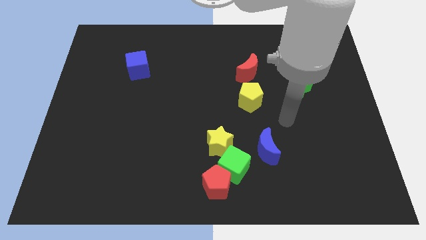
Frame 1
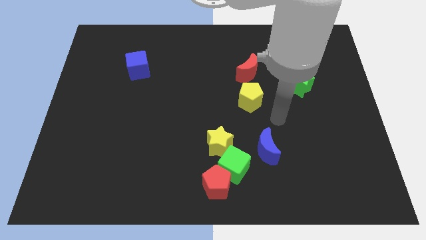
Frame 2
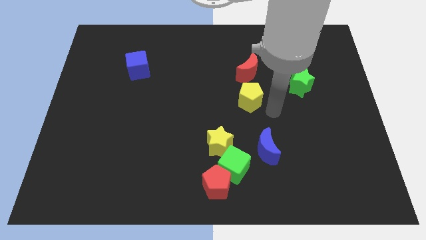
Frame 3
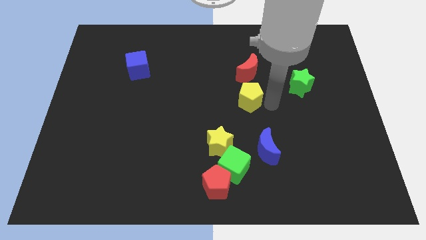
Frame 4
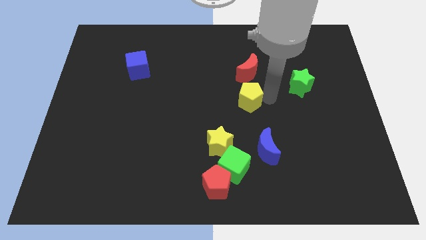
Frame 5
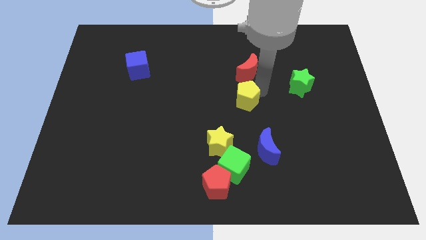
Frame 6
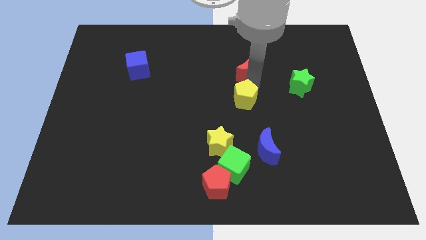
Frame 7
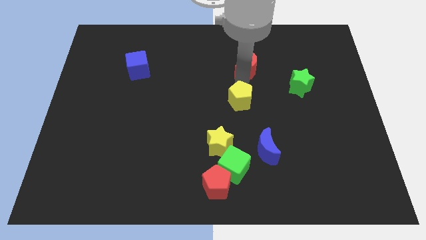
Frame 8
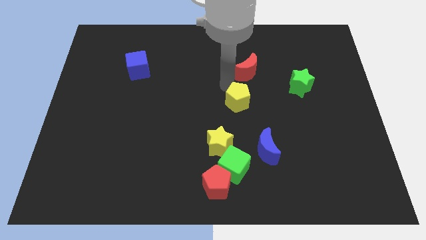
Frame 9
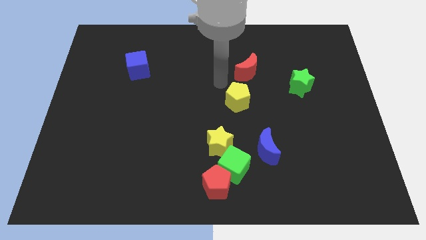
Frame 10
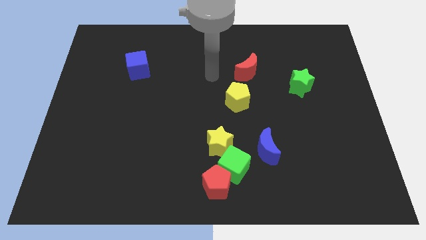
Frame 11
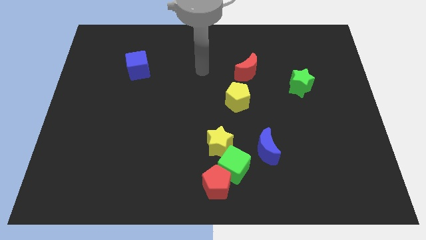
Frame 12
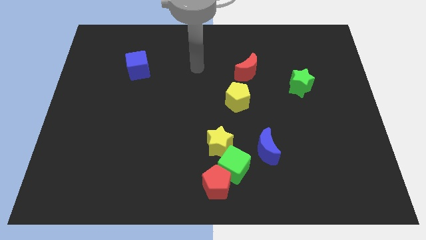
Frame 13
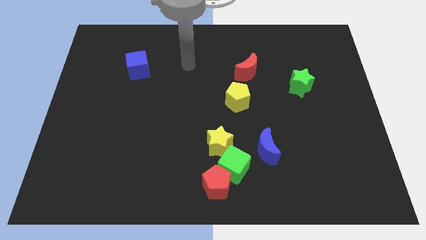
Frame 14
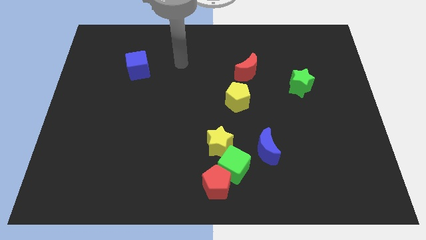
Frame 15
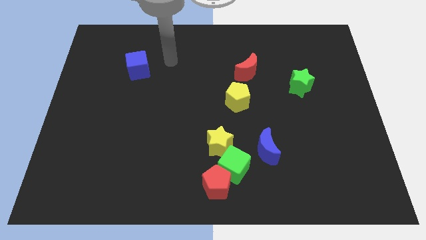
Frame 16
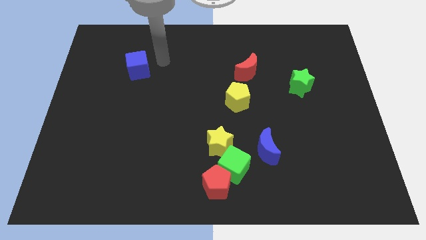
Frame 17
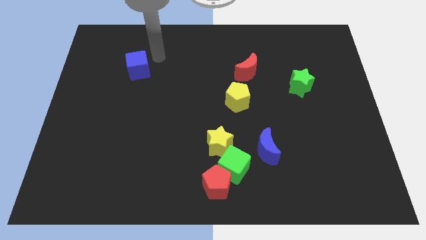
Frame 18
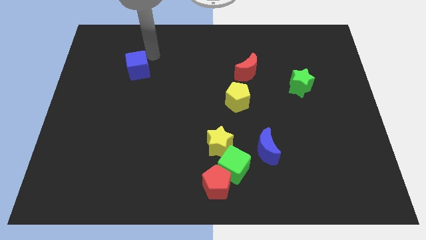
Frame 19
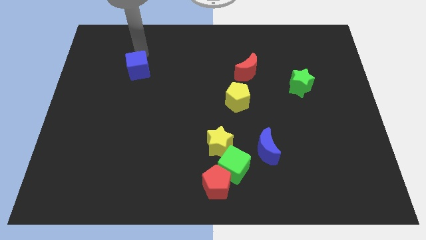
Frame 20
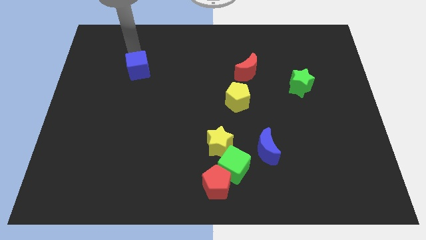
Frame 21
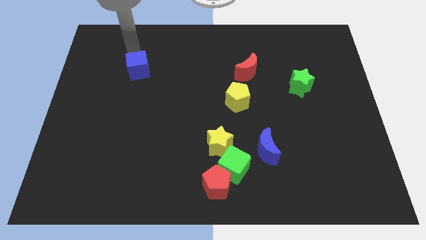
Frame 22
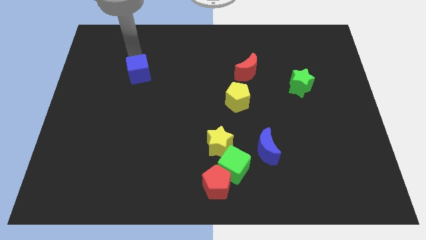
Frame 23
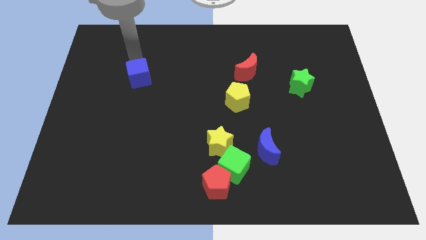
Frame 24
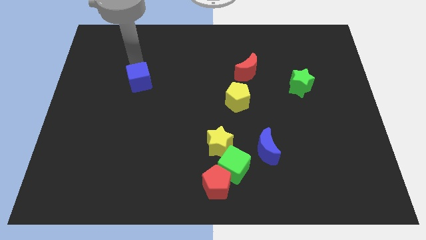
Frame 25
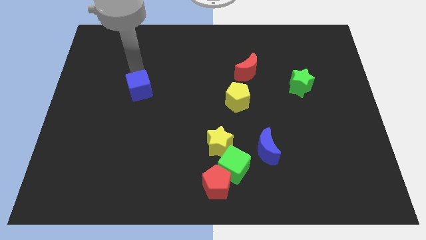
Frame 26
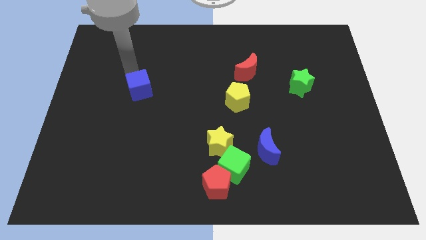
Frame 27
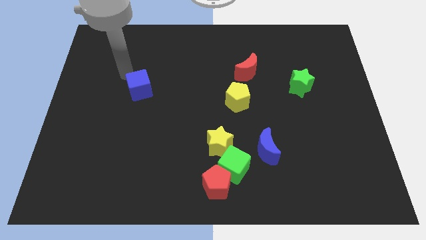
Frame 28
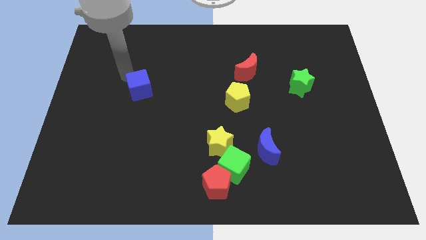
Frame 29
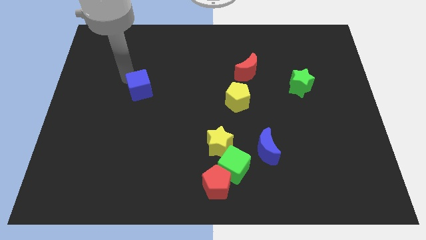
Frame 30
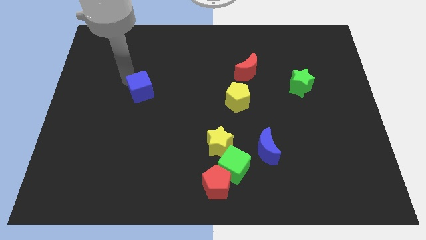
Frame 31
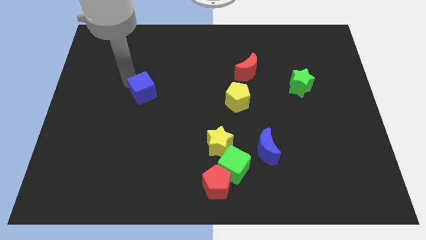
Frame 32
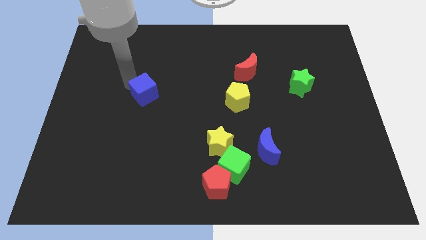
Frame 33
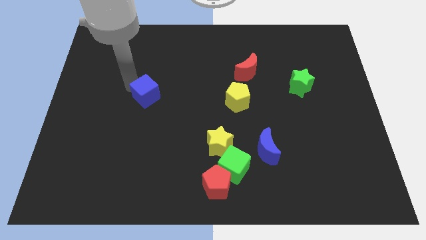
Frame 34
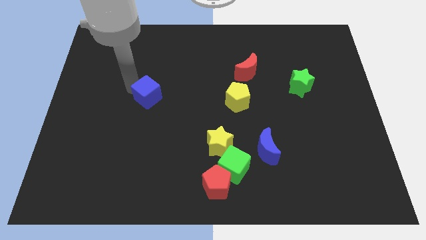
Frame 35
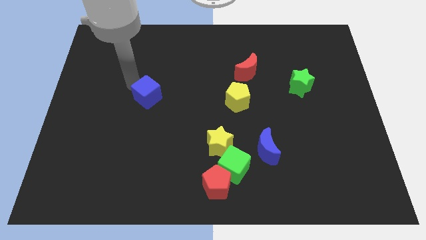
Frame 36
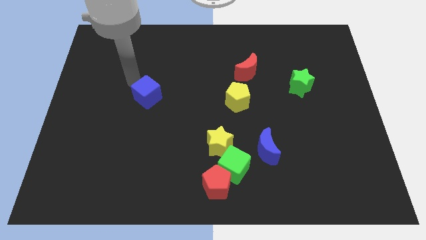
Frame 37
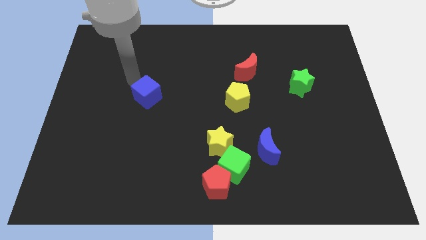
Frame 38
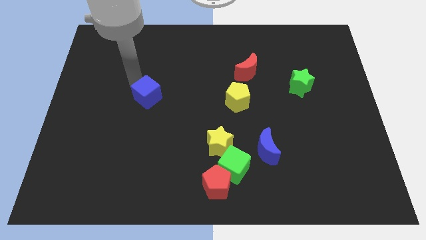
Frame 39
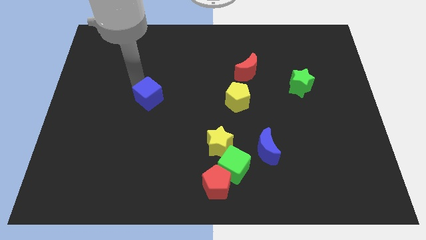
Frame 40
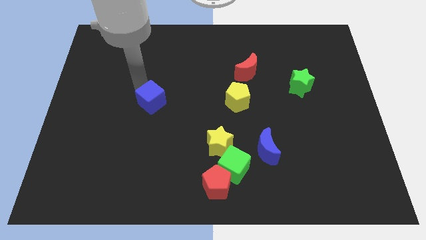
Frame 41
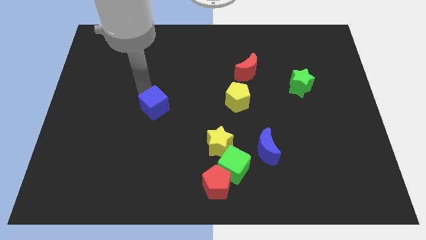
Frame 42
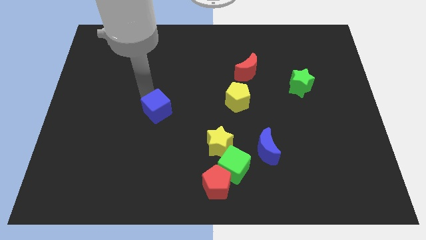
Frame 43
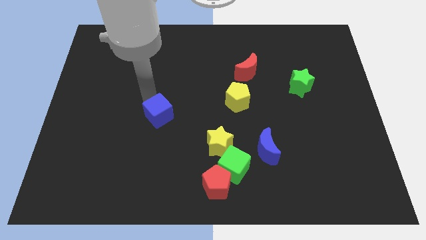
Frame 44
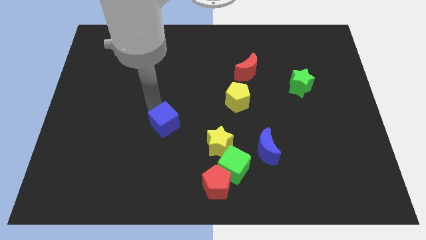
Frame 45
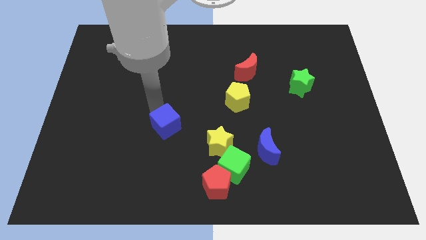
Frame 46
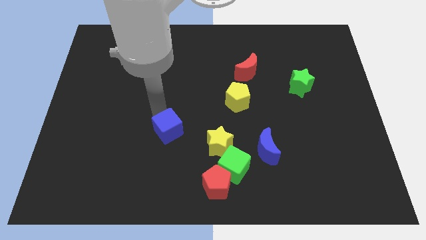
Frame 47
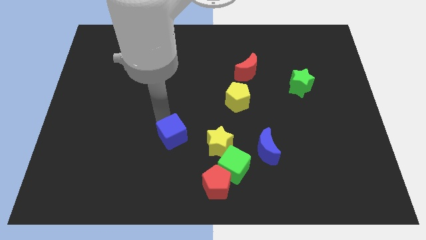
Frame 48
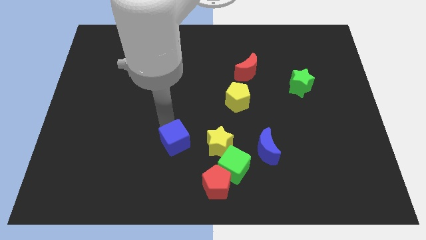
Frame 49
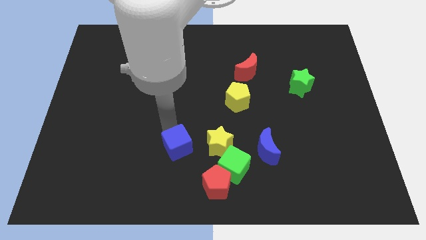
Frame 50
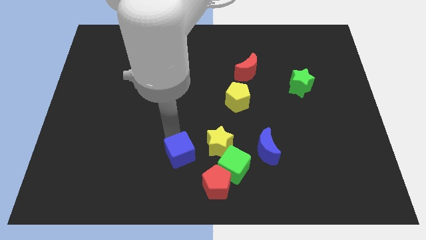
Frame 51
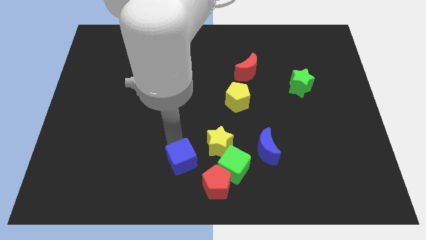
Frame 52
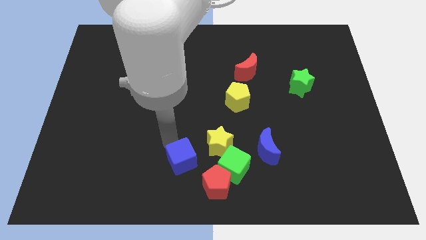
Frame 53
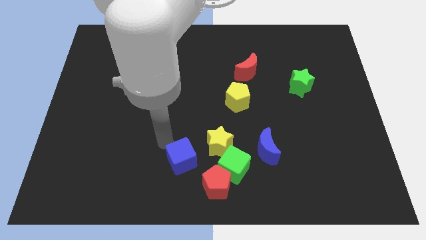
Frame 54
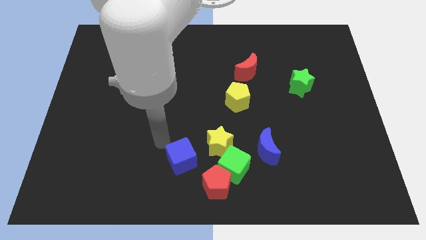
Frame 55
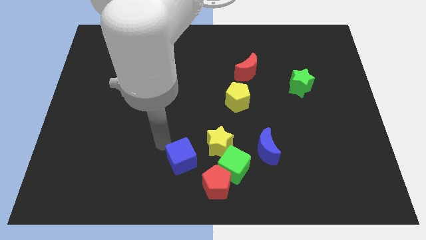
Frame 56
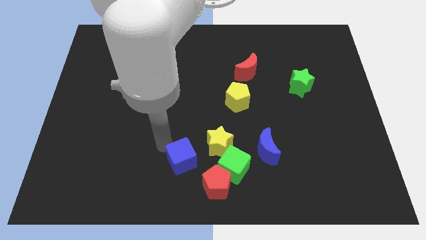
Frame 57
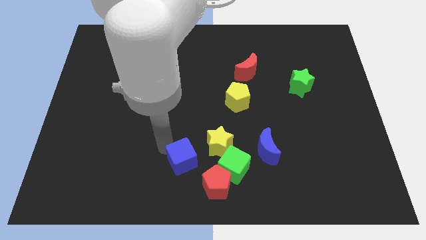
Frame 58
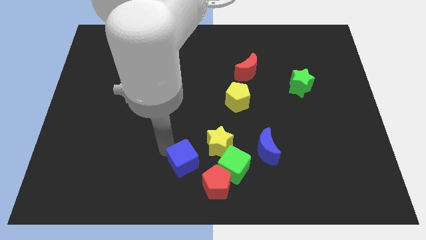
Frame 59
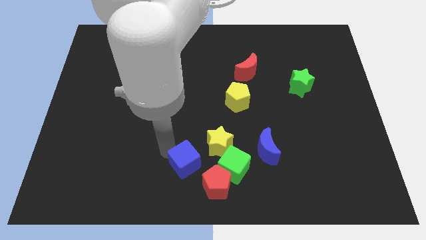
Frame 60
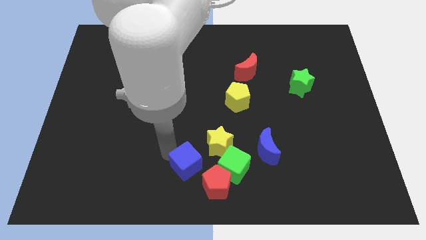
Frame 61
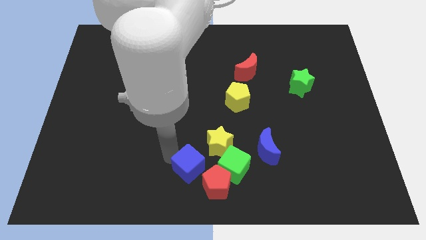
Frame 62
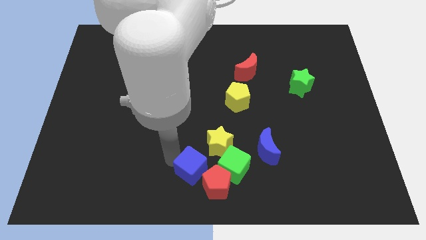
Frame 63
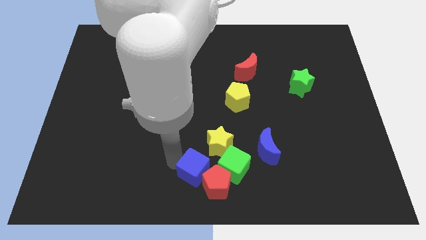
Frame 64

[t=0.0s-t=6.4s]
slide the blue cube towards the red pentagon

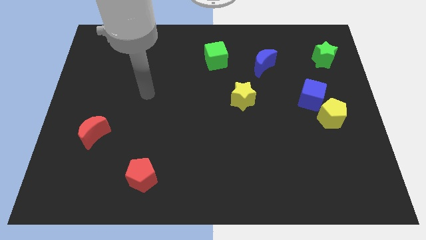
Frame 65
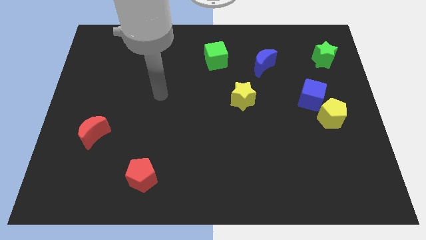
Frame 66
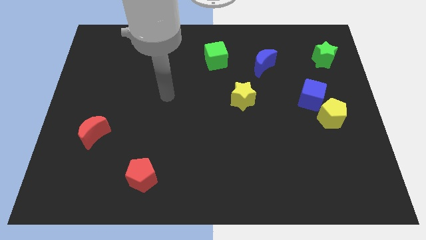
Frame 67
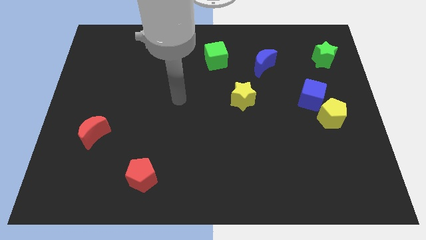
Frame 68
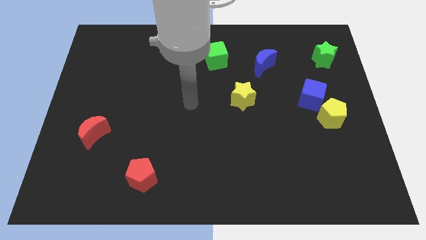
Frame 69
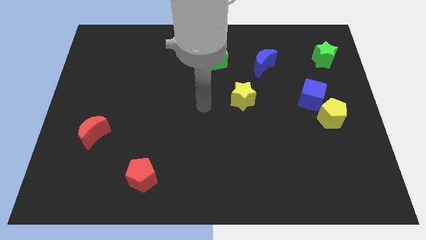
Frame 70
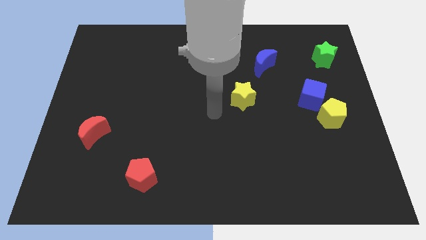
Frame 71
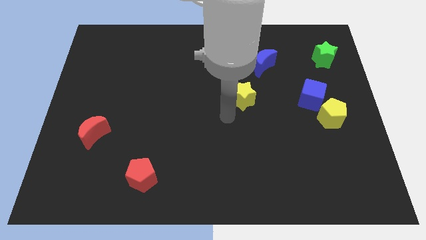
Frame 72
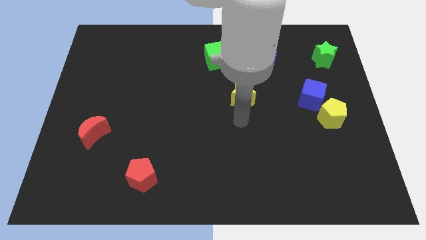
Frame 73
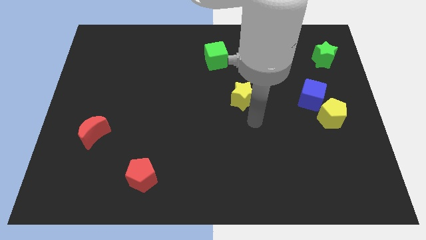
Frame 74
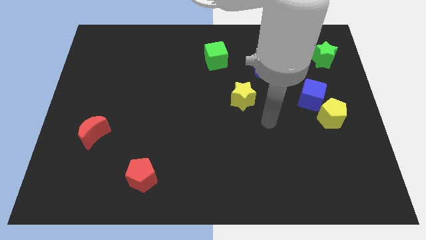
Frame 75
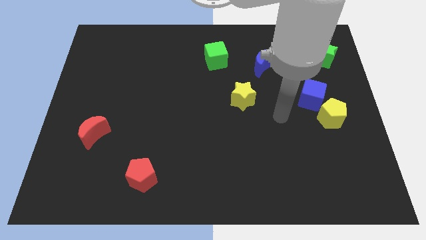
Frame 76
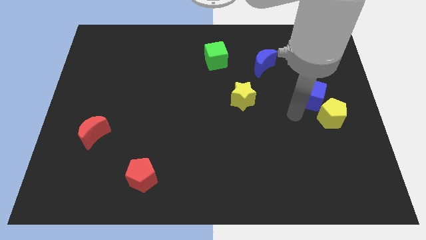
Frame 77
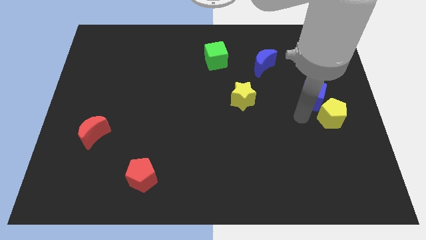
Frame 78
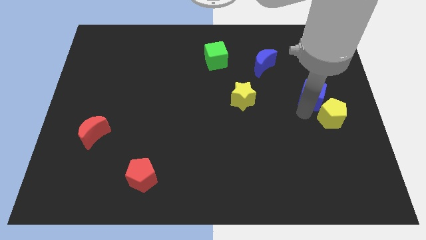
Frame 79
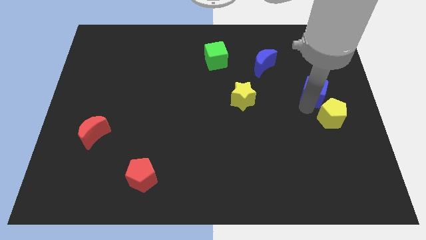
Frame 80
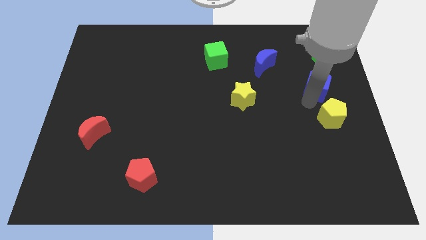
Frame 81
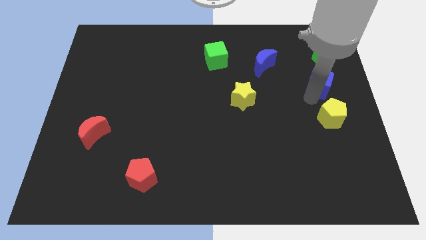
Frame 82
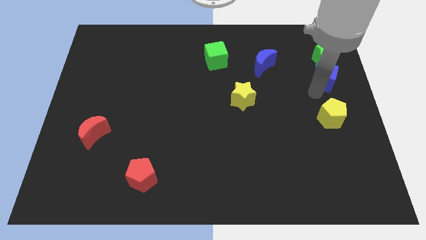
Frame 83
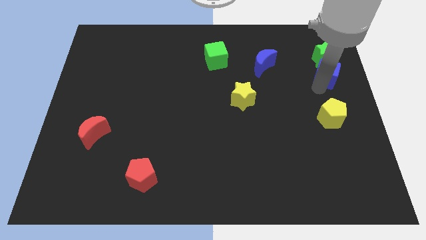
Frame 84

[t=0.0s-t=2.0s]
move the blue cube to the green star
